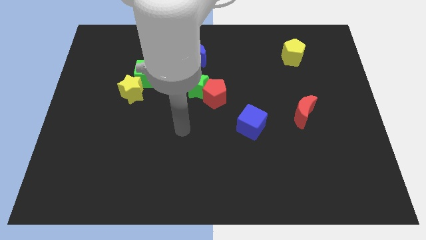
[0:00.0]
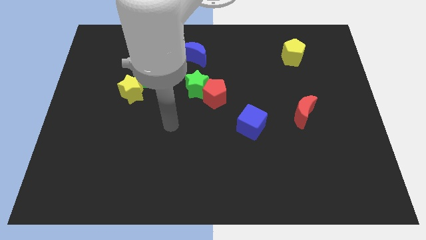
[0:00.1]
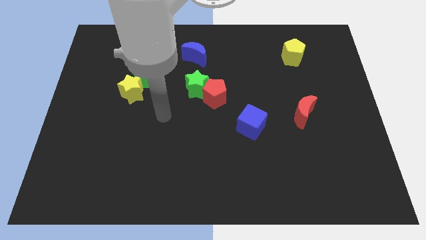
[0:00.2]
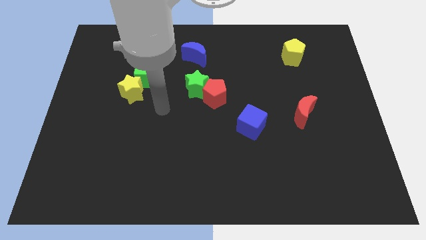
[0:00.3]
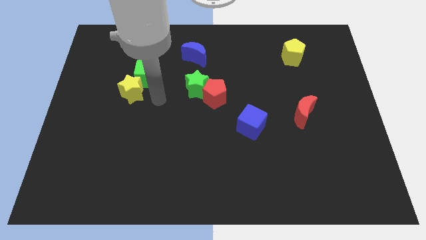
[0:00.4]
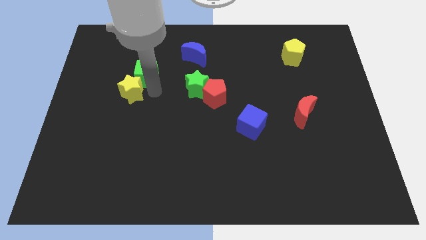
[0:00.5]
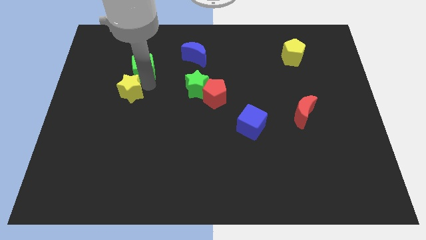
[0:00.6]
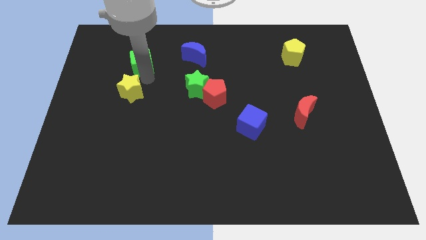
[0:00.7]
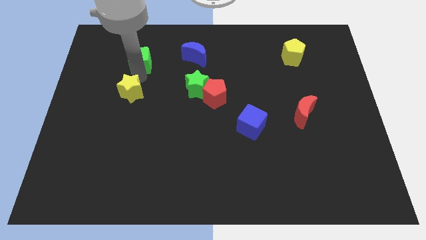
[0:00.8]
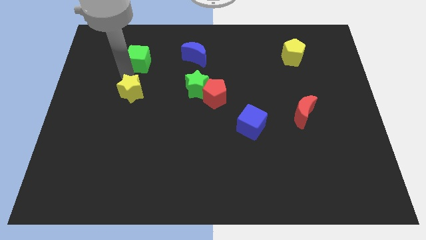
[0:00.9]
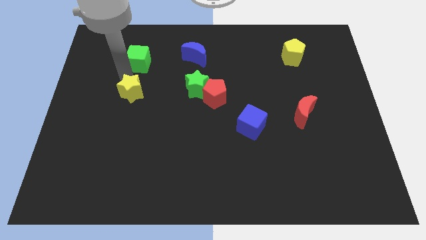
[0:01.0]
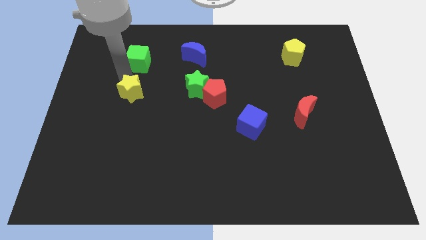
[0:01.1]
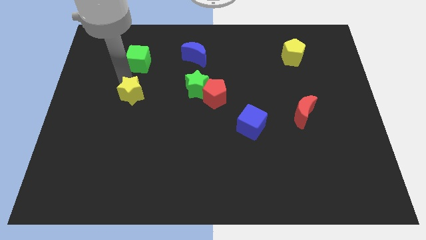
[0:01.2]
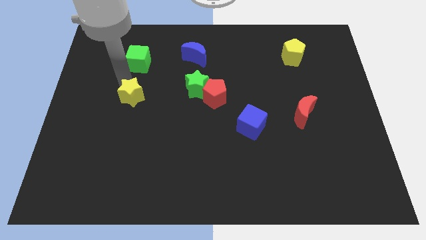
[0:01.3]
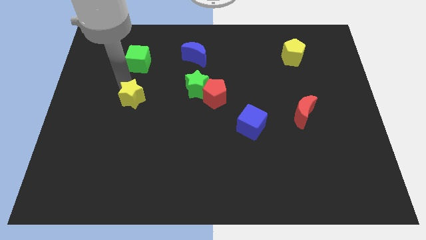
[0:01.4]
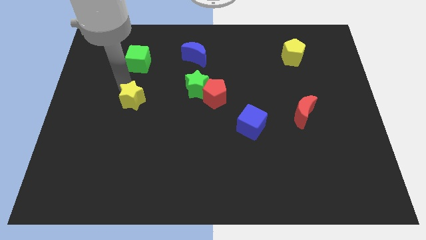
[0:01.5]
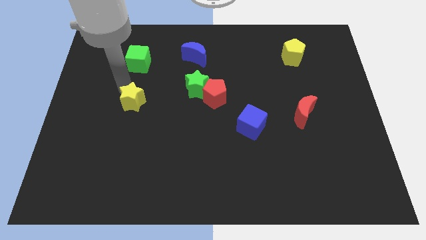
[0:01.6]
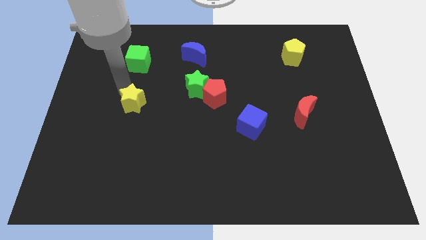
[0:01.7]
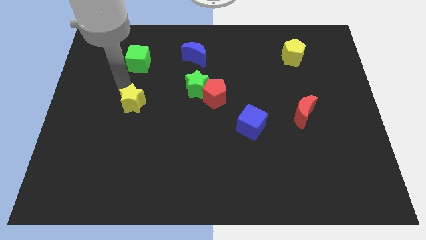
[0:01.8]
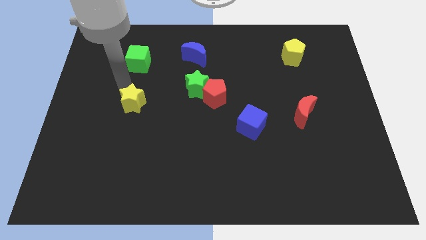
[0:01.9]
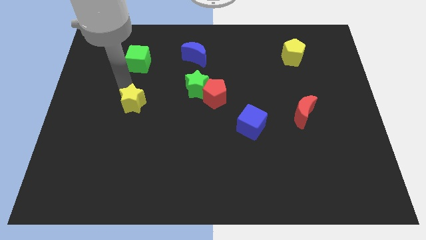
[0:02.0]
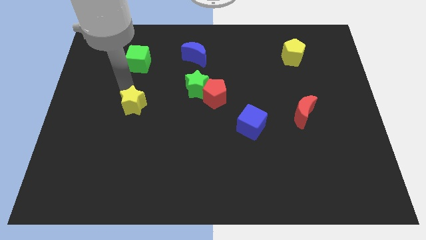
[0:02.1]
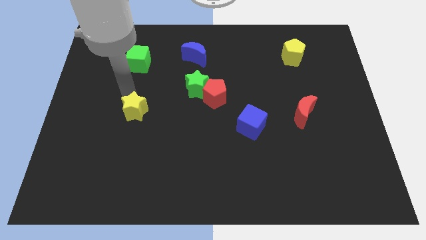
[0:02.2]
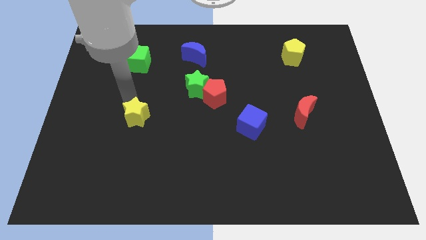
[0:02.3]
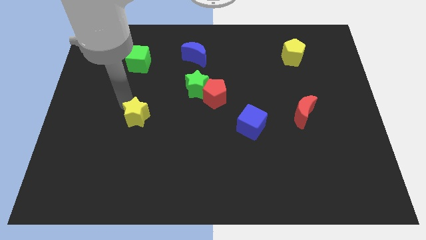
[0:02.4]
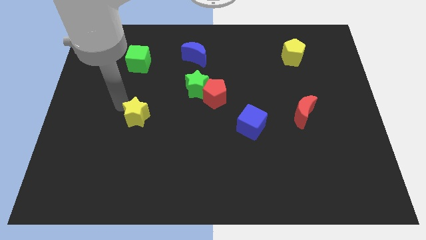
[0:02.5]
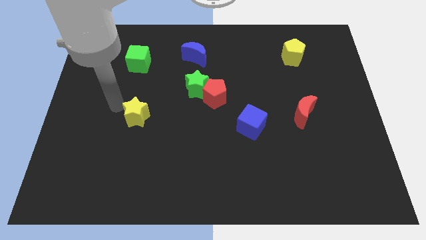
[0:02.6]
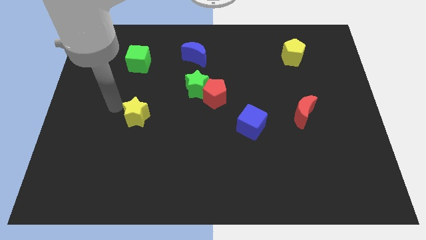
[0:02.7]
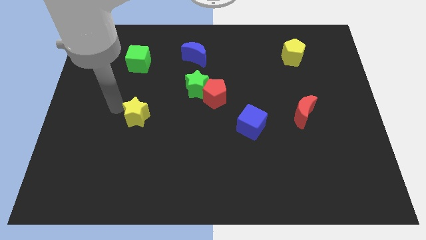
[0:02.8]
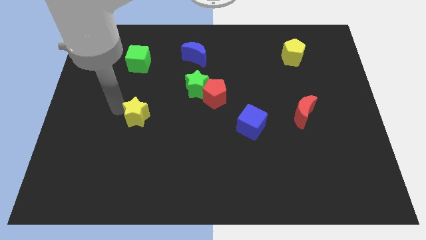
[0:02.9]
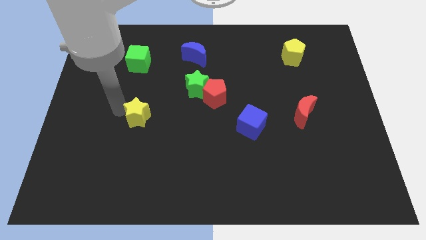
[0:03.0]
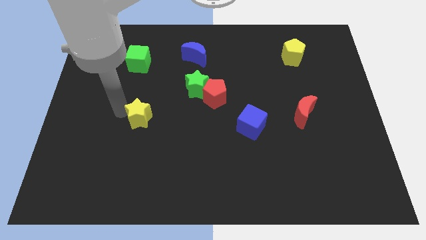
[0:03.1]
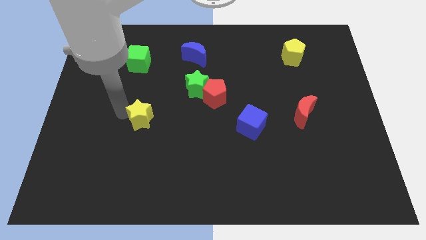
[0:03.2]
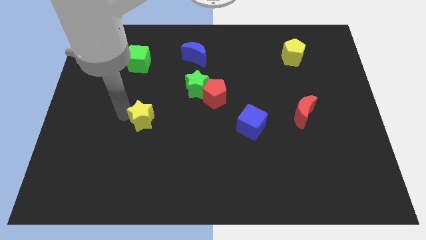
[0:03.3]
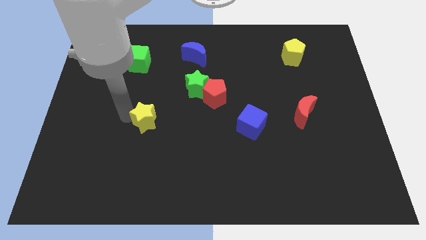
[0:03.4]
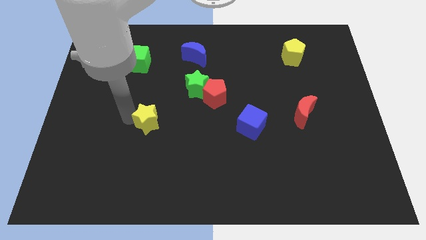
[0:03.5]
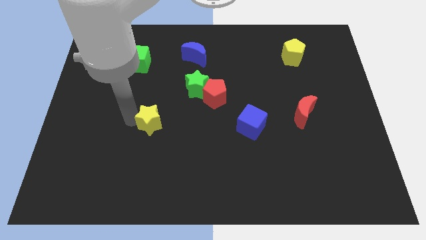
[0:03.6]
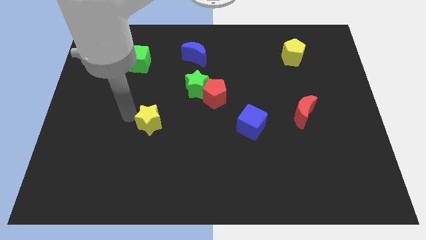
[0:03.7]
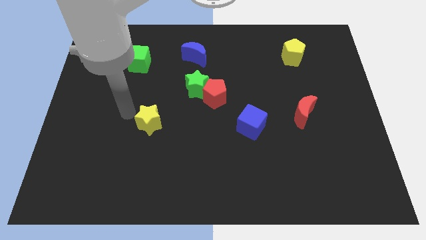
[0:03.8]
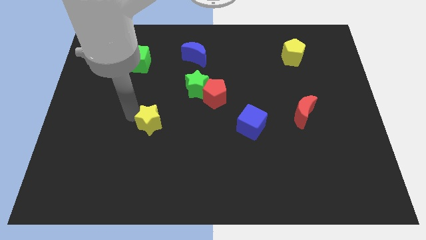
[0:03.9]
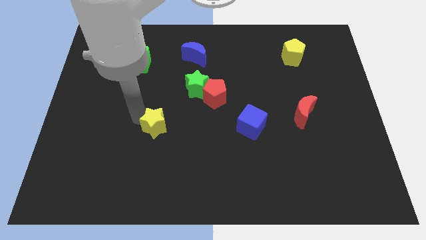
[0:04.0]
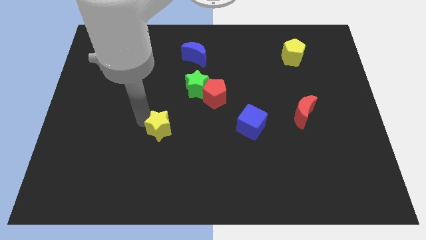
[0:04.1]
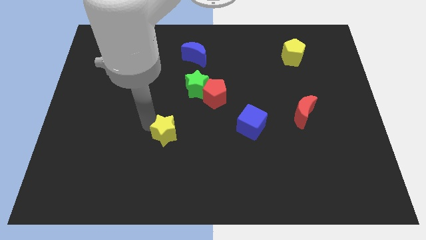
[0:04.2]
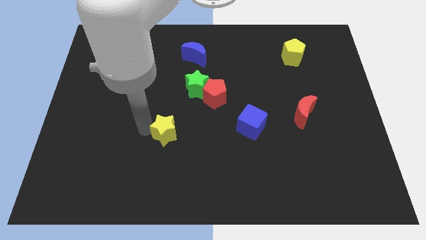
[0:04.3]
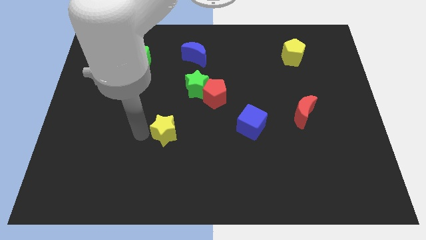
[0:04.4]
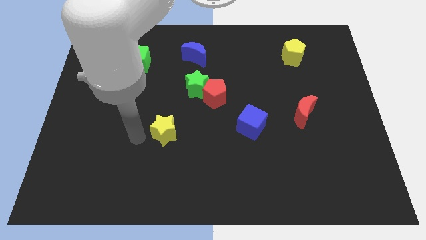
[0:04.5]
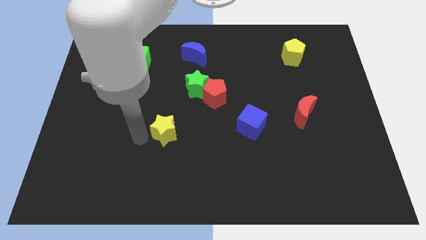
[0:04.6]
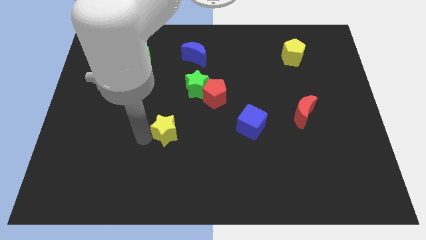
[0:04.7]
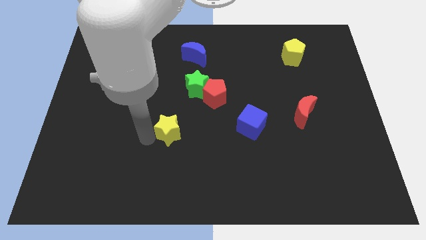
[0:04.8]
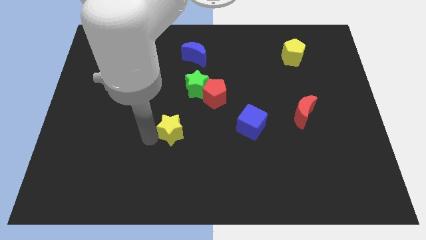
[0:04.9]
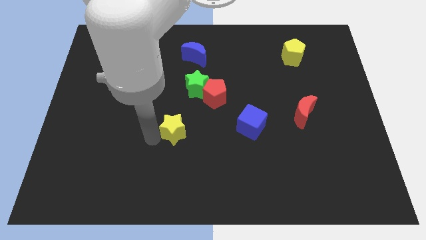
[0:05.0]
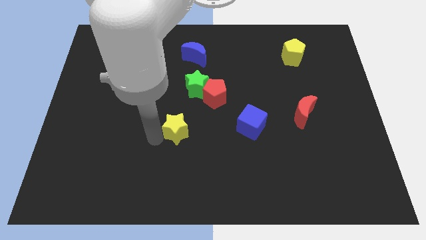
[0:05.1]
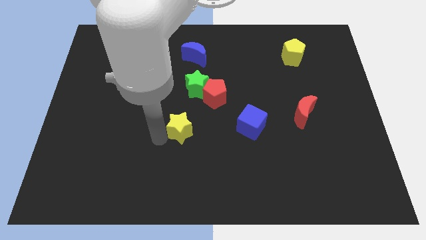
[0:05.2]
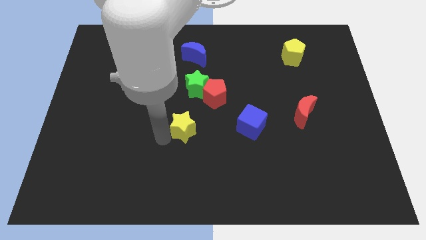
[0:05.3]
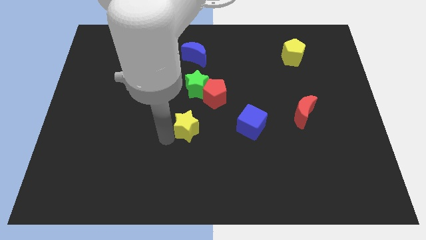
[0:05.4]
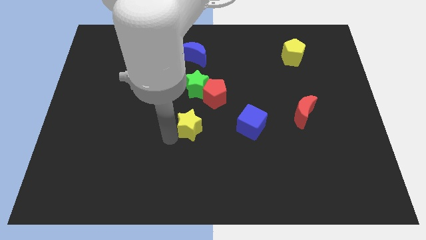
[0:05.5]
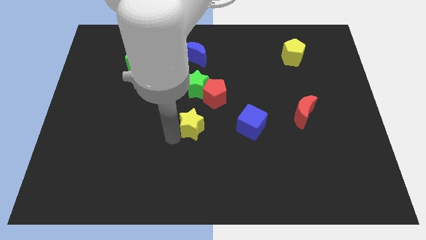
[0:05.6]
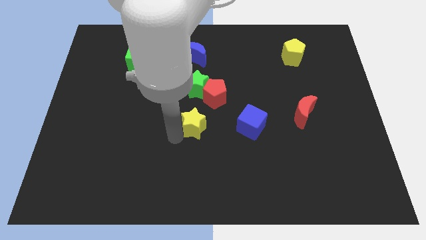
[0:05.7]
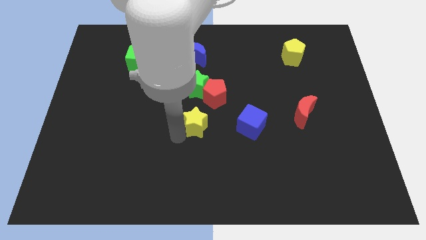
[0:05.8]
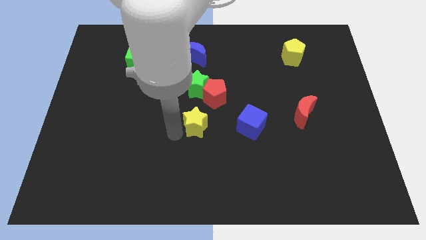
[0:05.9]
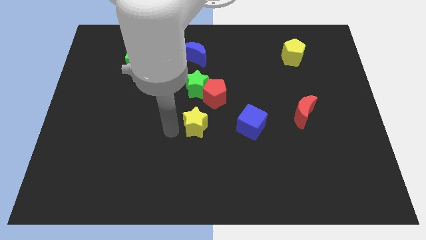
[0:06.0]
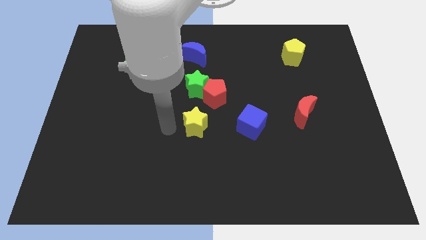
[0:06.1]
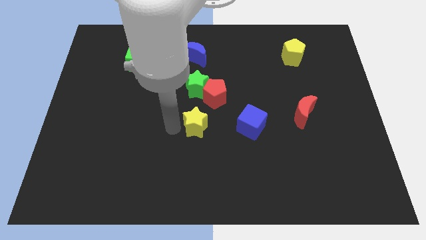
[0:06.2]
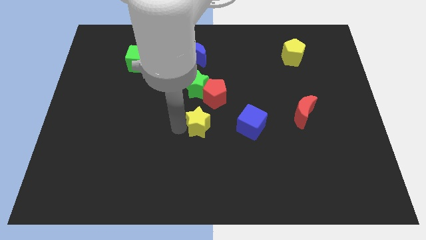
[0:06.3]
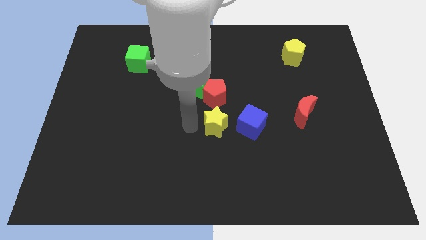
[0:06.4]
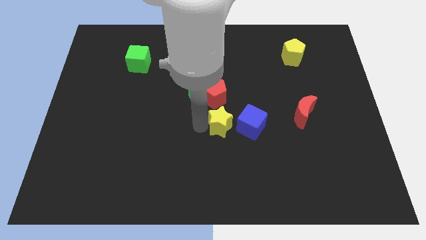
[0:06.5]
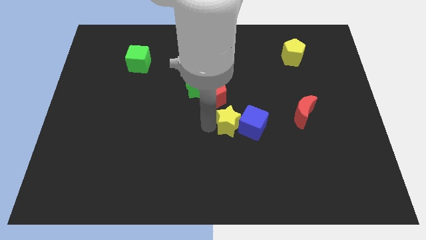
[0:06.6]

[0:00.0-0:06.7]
put the yellow star to the blue cube

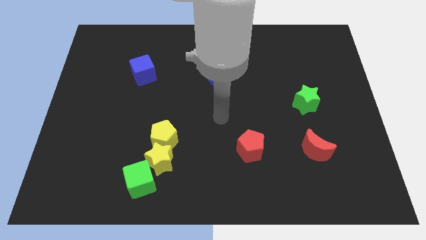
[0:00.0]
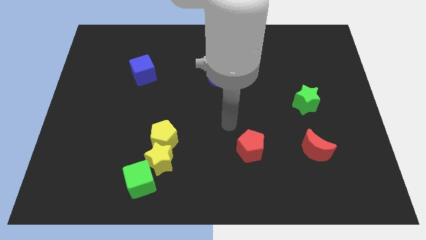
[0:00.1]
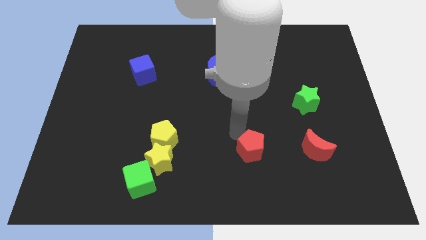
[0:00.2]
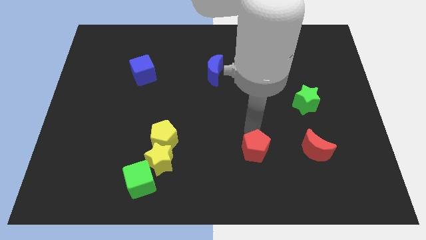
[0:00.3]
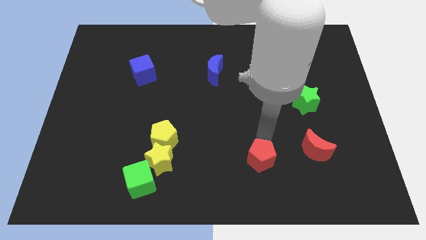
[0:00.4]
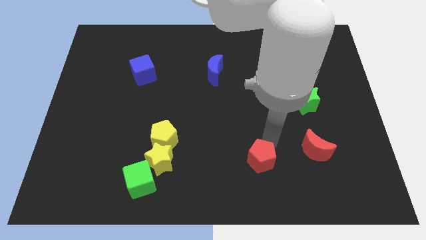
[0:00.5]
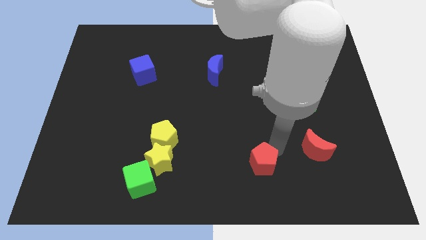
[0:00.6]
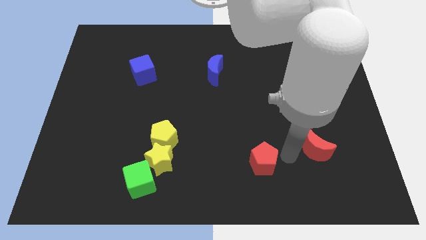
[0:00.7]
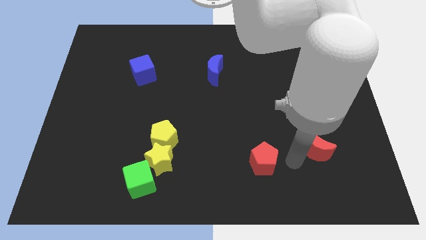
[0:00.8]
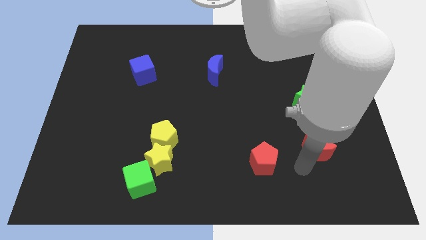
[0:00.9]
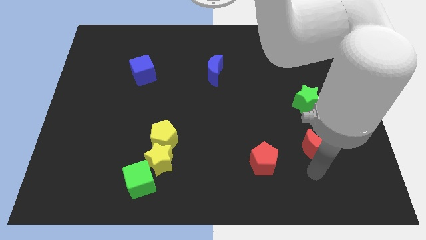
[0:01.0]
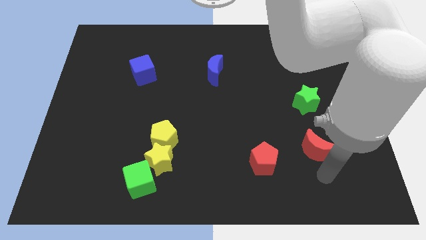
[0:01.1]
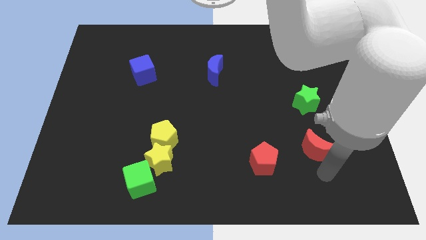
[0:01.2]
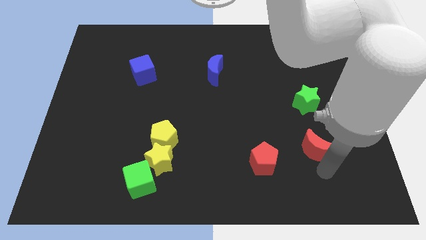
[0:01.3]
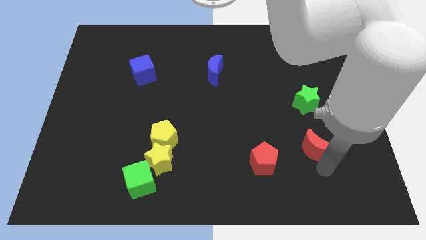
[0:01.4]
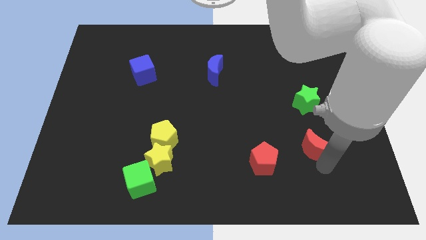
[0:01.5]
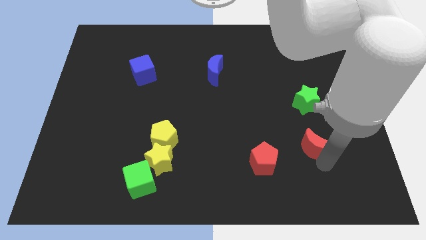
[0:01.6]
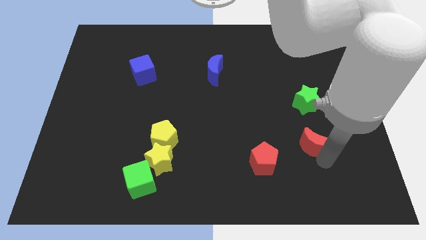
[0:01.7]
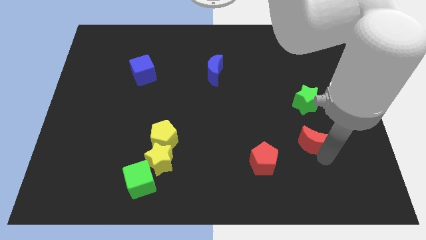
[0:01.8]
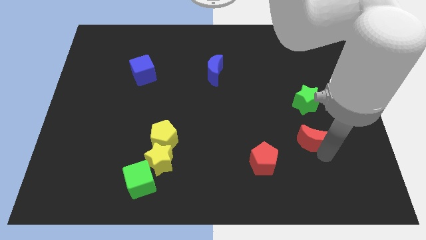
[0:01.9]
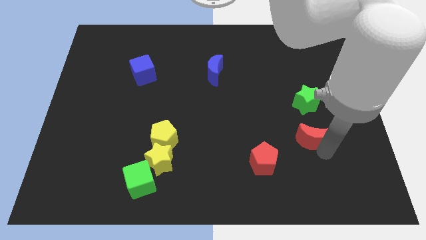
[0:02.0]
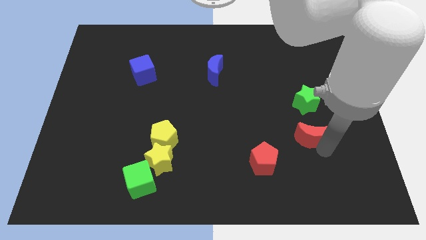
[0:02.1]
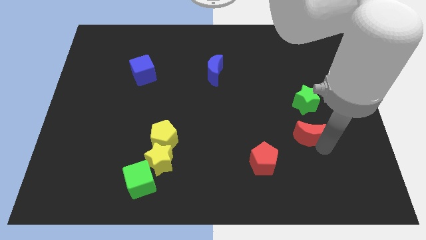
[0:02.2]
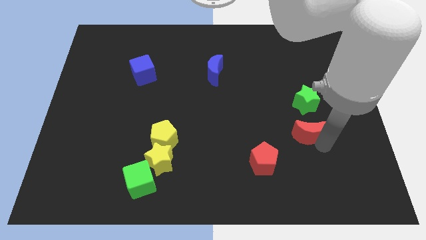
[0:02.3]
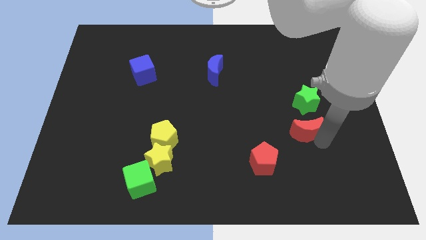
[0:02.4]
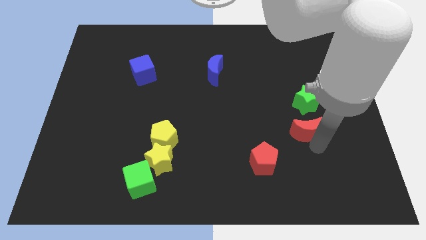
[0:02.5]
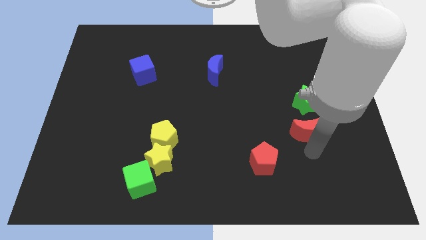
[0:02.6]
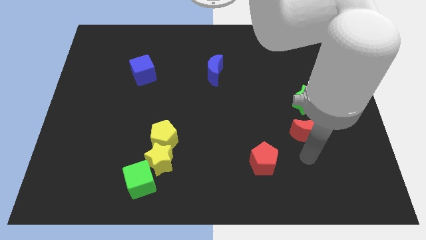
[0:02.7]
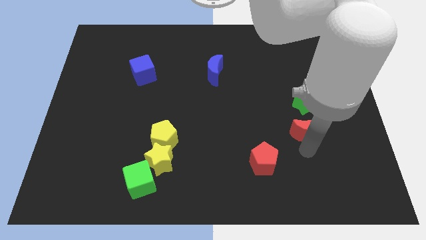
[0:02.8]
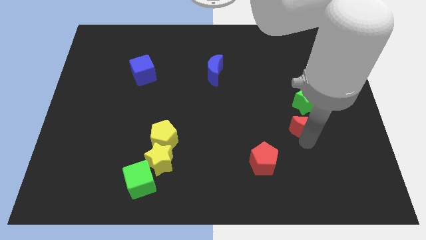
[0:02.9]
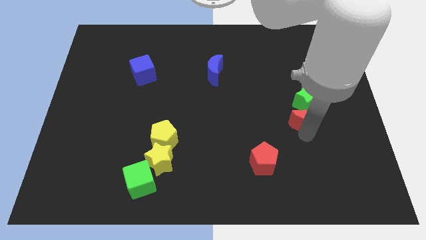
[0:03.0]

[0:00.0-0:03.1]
slide the red moon close to the green star
